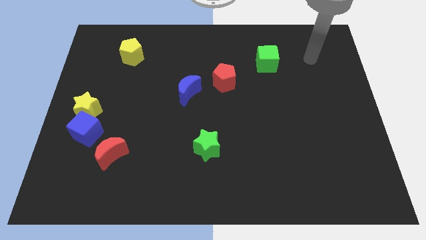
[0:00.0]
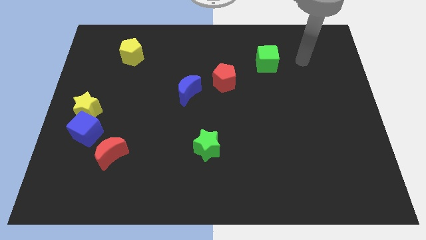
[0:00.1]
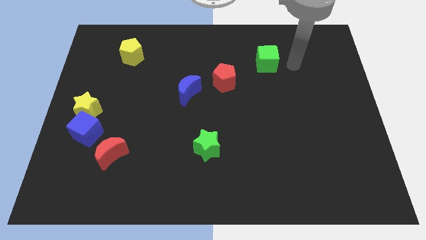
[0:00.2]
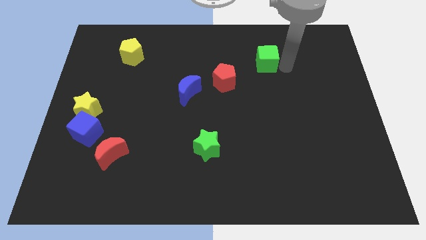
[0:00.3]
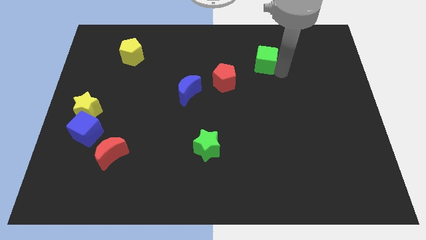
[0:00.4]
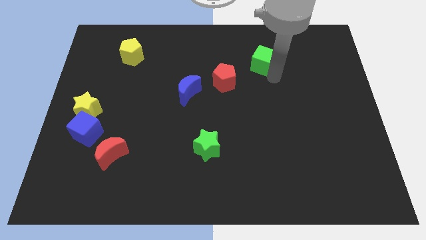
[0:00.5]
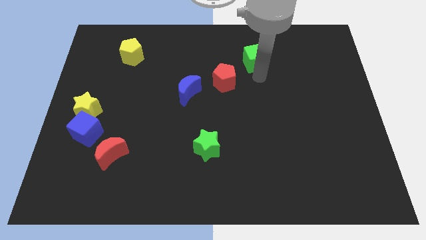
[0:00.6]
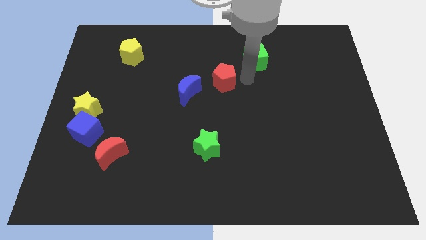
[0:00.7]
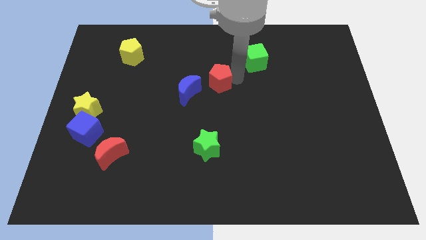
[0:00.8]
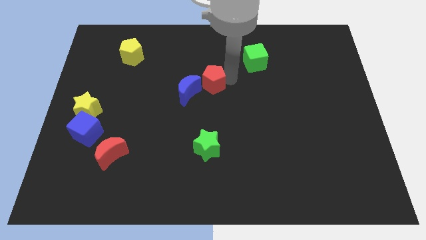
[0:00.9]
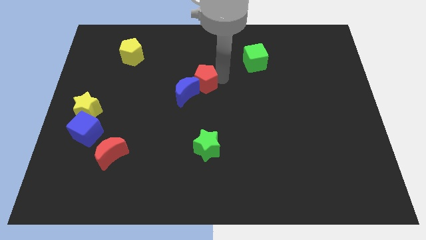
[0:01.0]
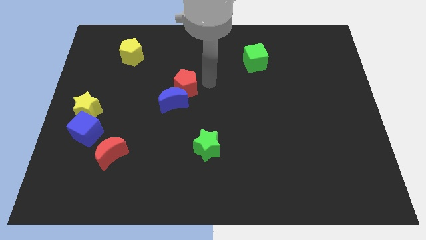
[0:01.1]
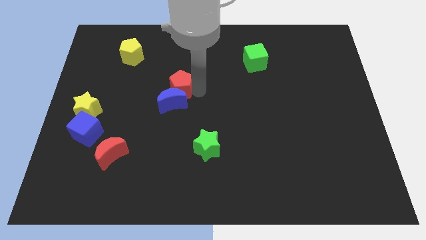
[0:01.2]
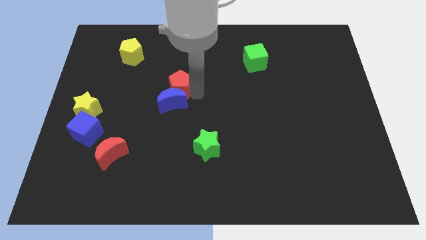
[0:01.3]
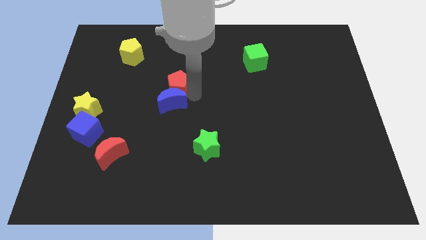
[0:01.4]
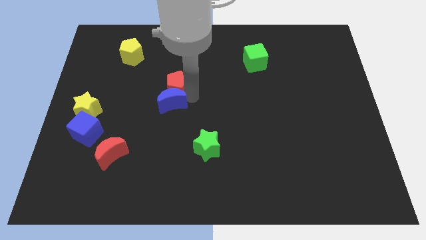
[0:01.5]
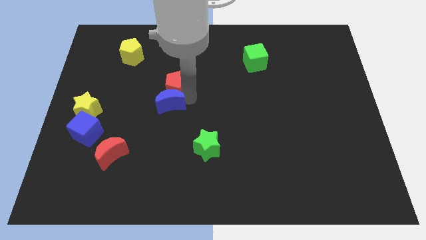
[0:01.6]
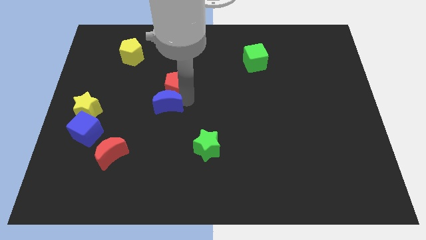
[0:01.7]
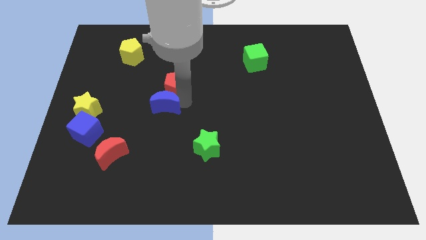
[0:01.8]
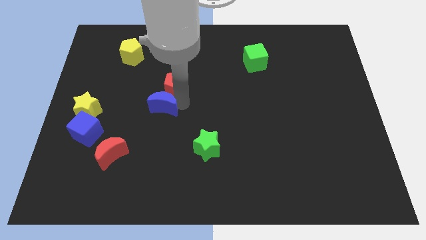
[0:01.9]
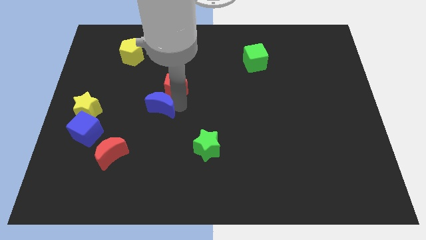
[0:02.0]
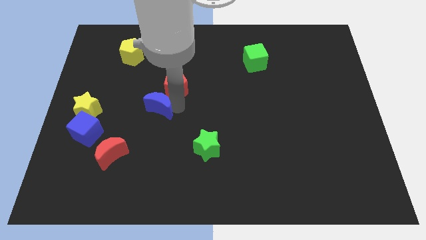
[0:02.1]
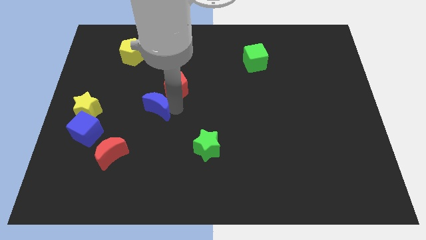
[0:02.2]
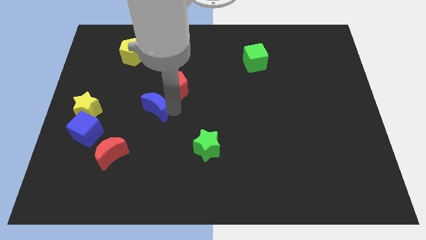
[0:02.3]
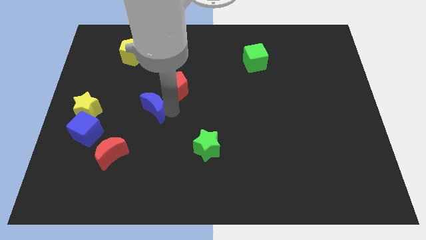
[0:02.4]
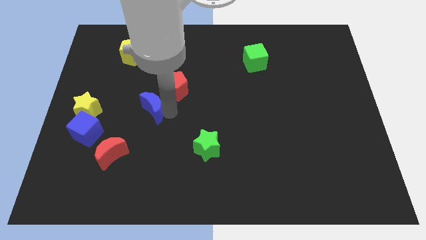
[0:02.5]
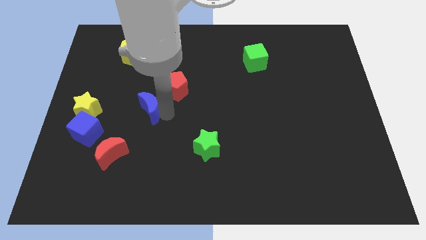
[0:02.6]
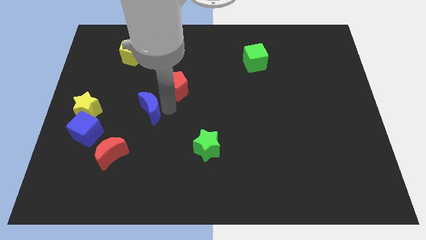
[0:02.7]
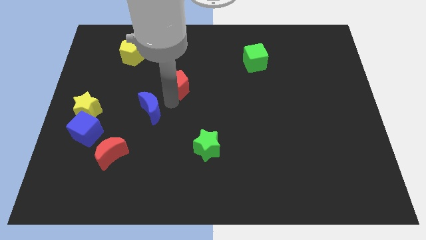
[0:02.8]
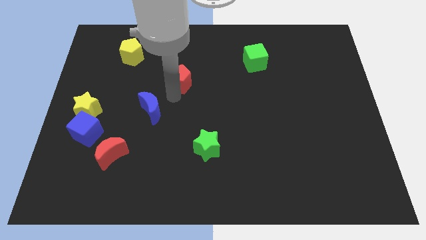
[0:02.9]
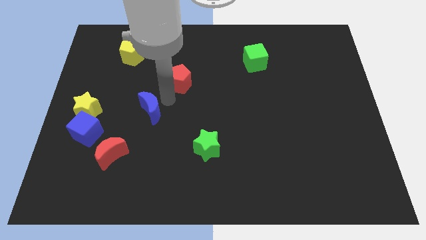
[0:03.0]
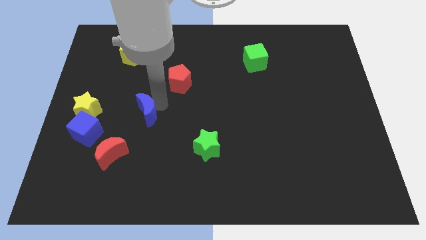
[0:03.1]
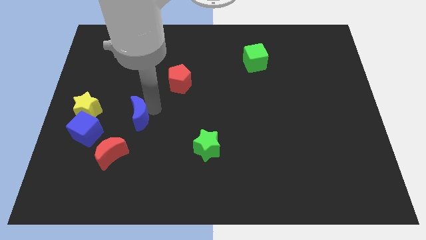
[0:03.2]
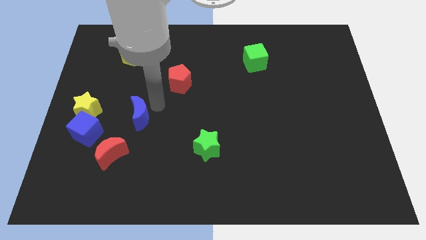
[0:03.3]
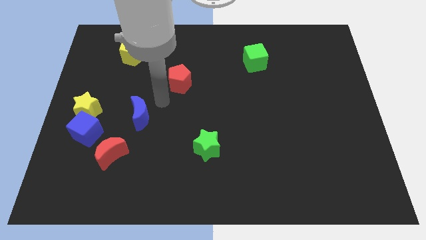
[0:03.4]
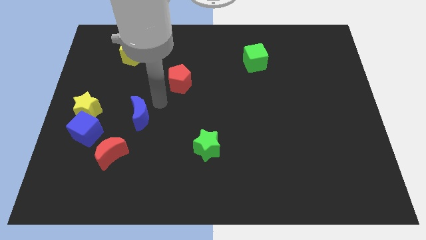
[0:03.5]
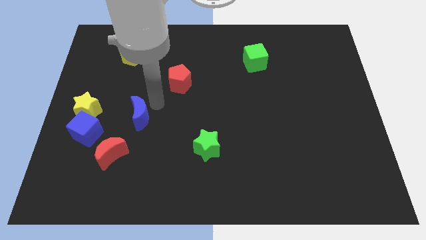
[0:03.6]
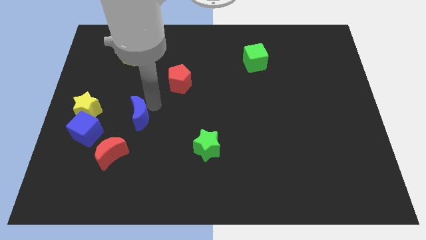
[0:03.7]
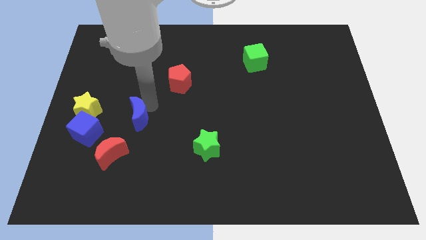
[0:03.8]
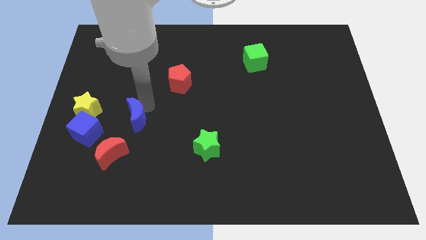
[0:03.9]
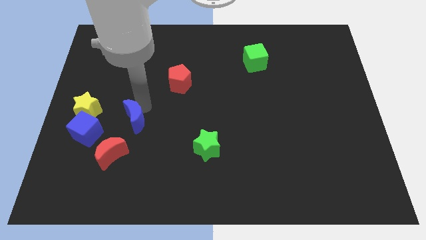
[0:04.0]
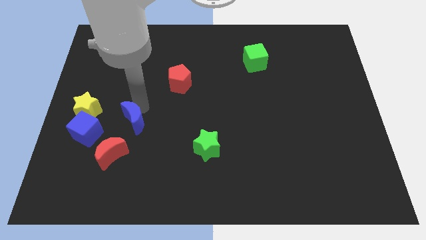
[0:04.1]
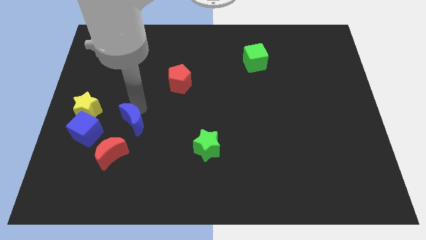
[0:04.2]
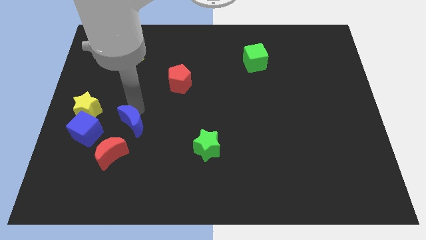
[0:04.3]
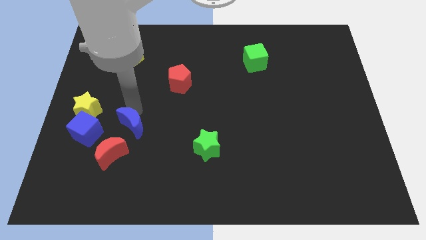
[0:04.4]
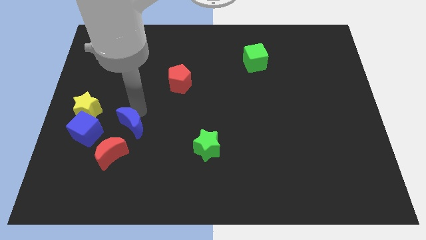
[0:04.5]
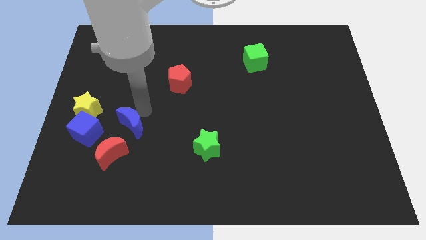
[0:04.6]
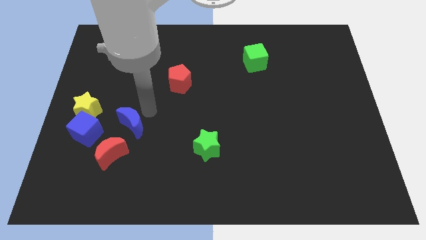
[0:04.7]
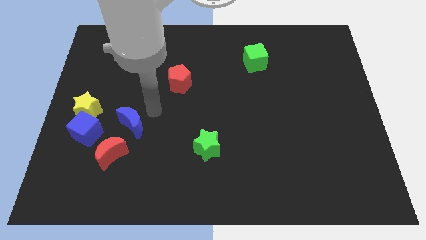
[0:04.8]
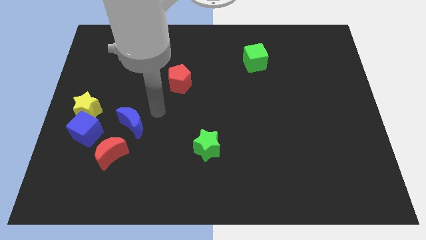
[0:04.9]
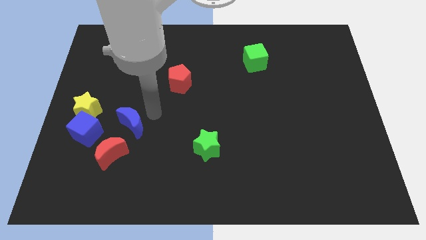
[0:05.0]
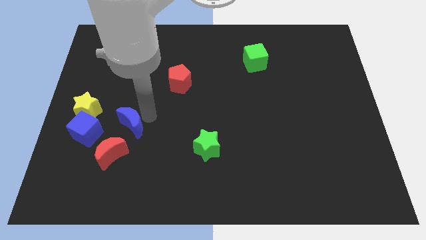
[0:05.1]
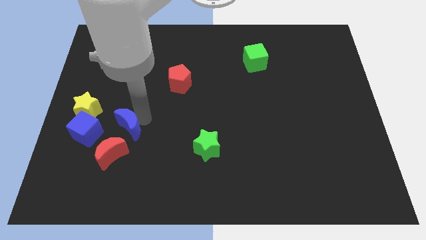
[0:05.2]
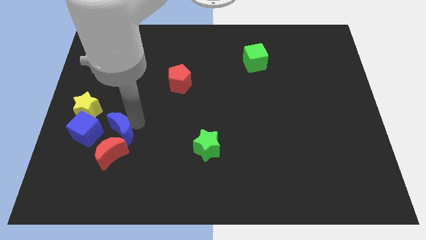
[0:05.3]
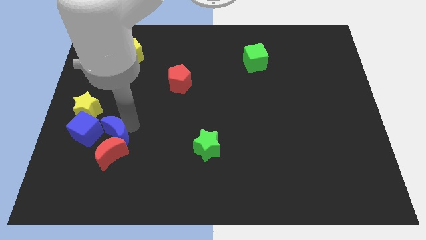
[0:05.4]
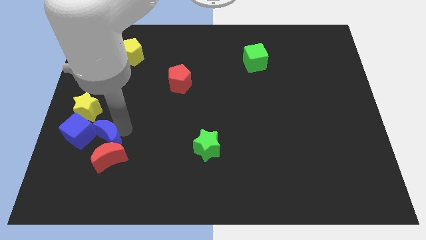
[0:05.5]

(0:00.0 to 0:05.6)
push the blue moon downwards and then left

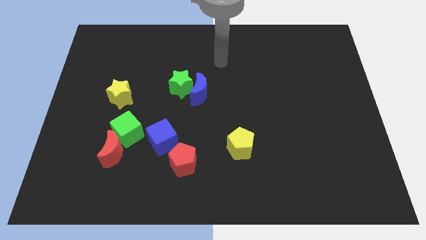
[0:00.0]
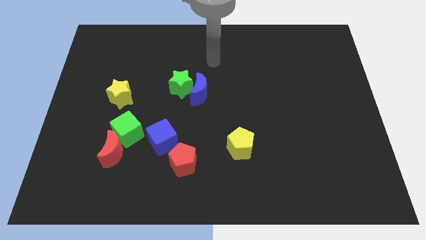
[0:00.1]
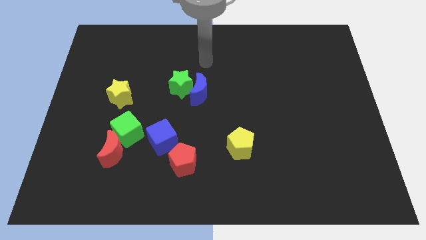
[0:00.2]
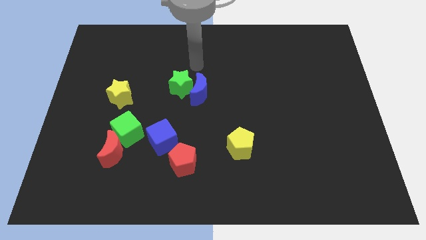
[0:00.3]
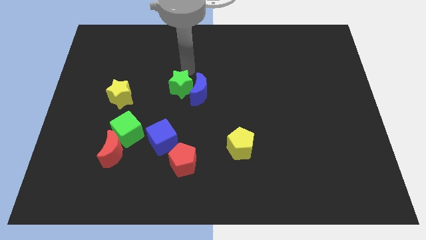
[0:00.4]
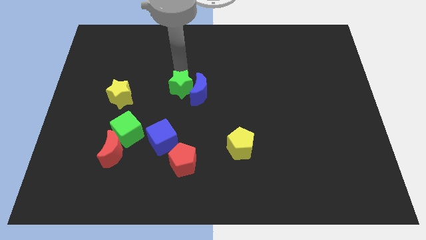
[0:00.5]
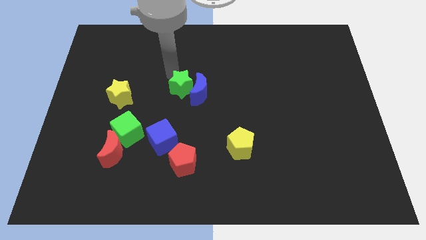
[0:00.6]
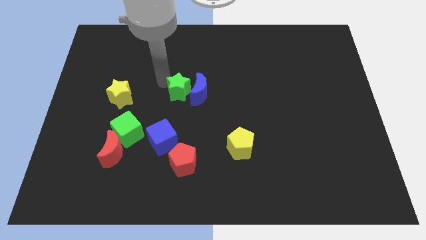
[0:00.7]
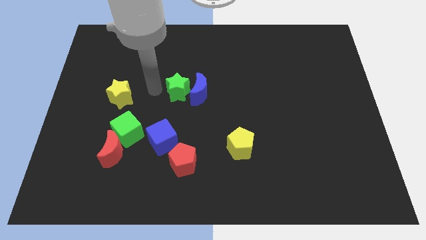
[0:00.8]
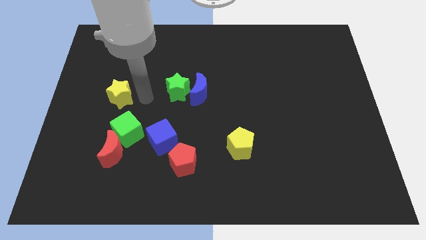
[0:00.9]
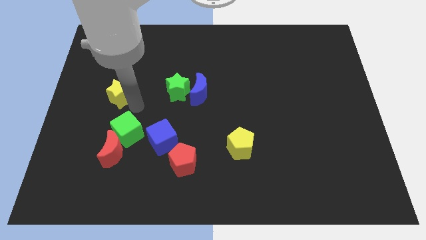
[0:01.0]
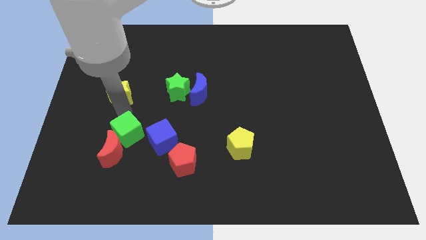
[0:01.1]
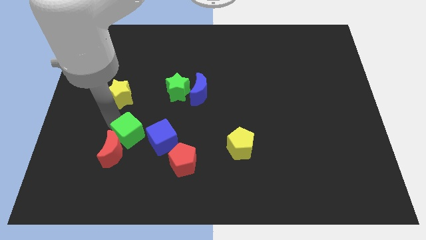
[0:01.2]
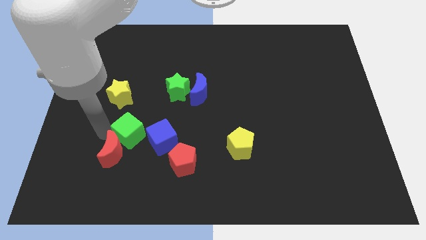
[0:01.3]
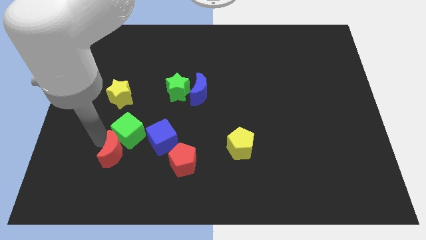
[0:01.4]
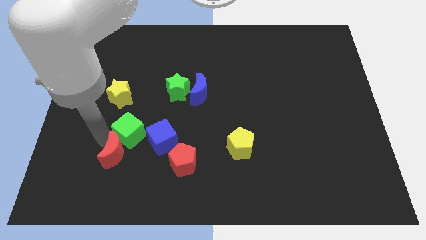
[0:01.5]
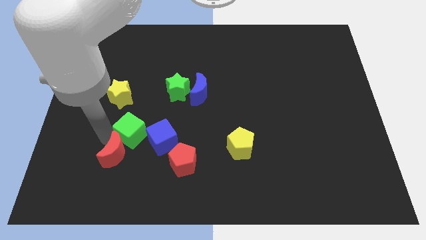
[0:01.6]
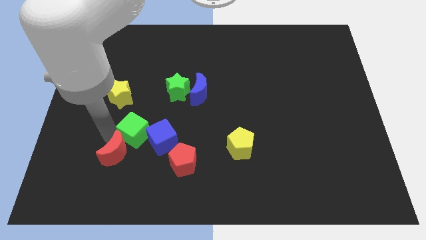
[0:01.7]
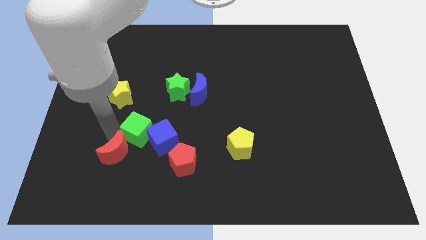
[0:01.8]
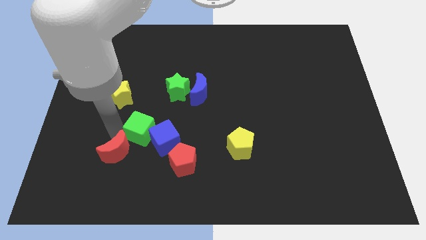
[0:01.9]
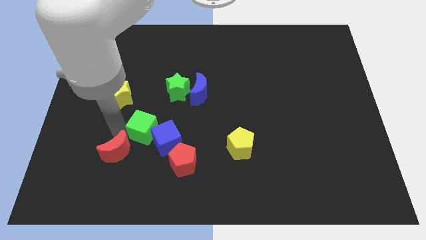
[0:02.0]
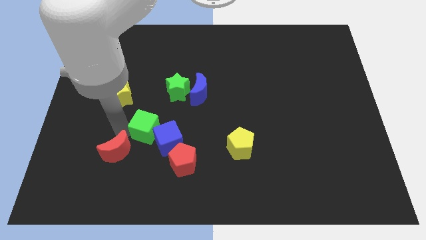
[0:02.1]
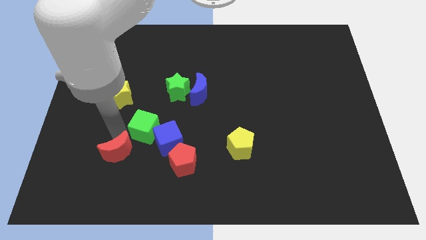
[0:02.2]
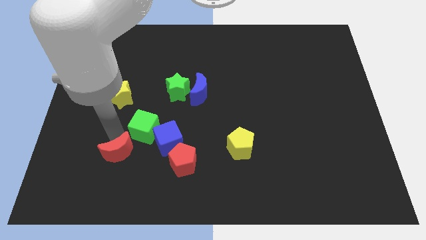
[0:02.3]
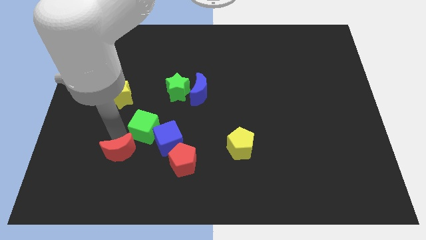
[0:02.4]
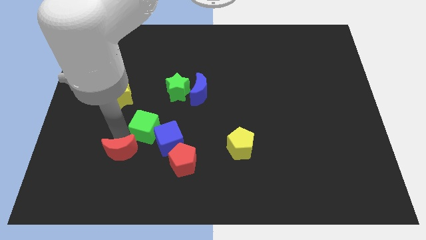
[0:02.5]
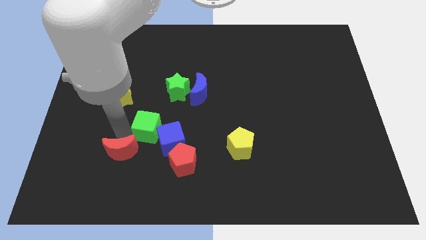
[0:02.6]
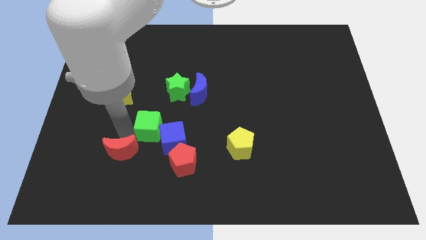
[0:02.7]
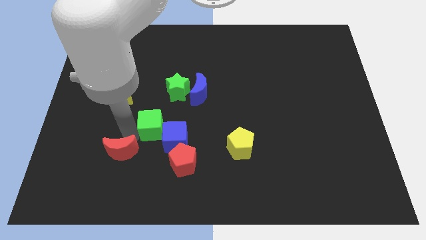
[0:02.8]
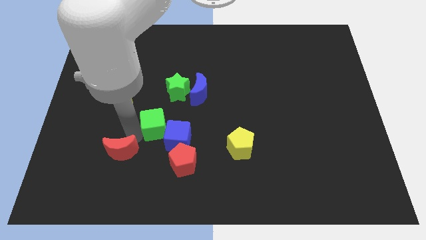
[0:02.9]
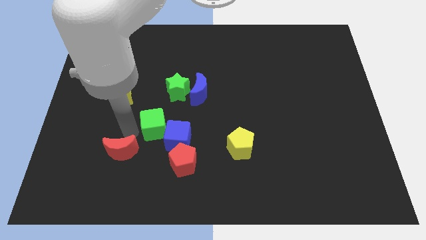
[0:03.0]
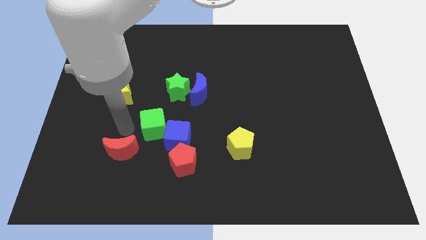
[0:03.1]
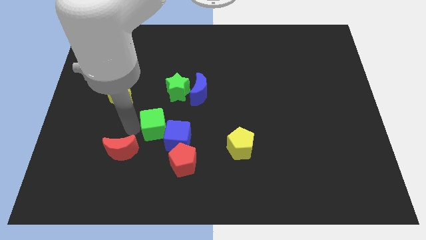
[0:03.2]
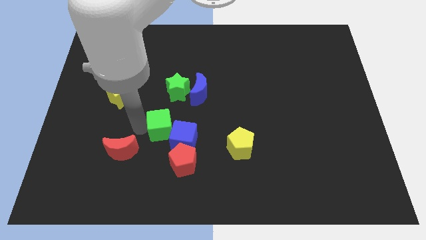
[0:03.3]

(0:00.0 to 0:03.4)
slide the green cube slightly to the right
